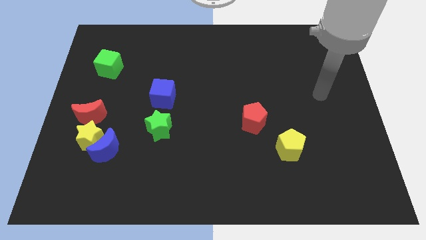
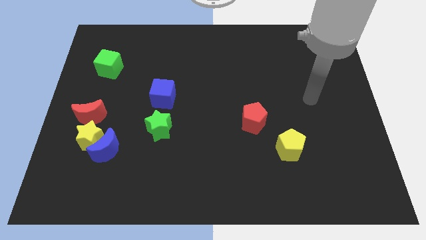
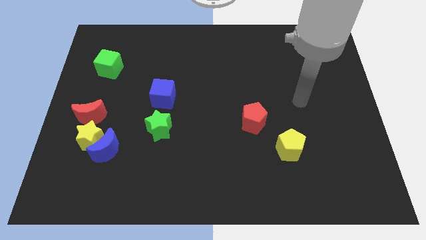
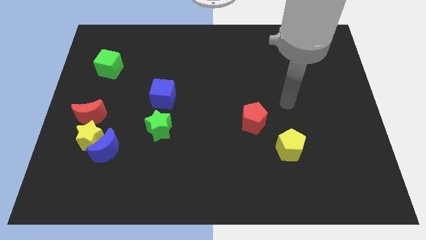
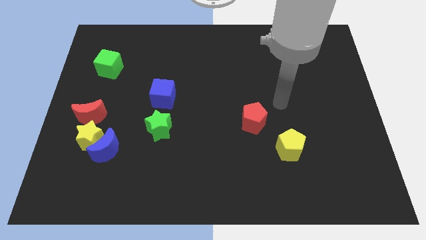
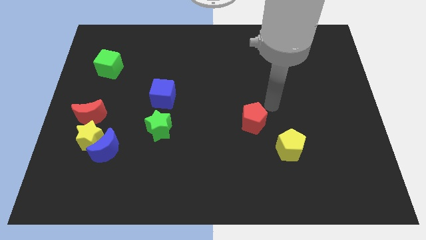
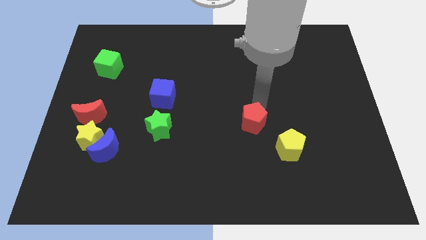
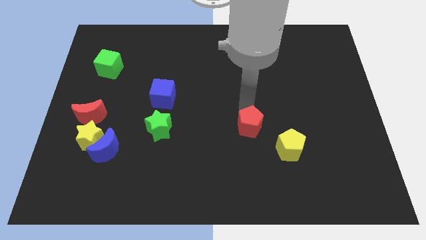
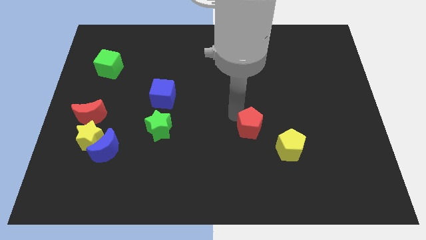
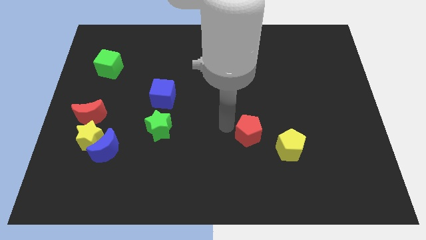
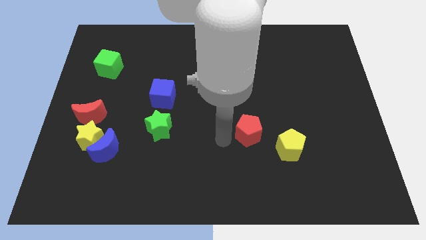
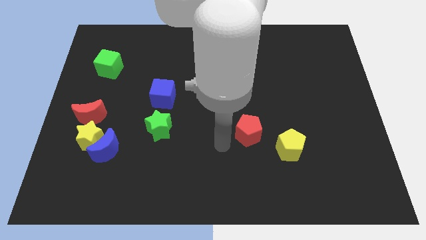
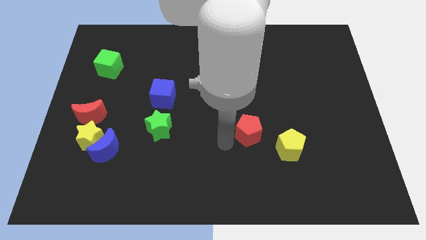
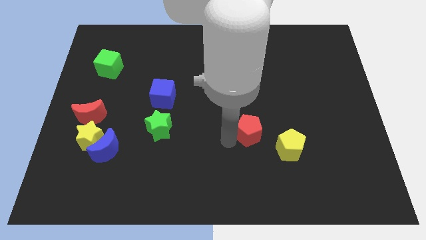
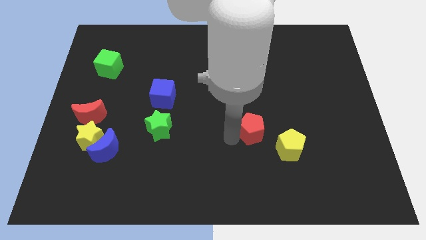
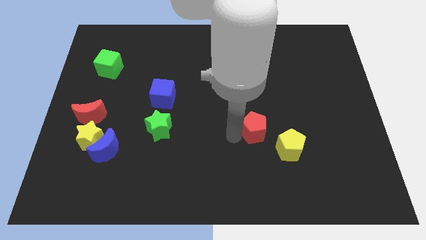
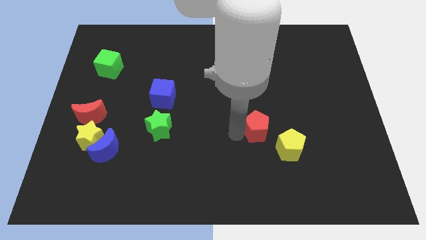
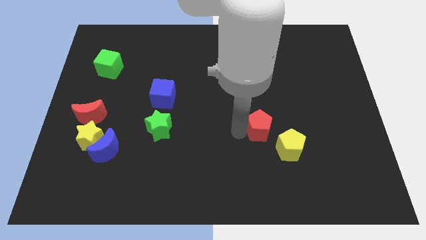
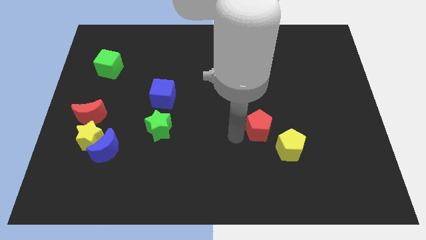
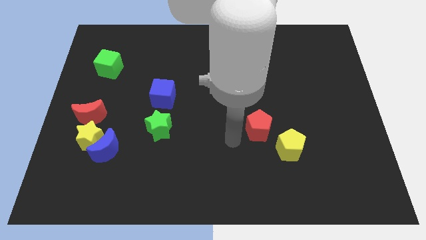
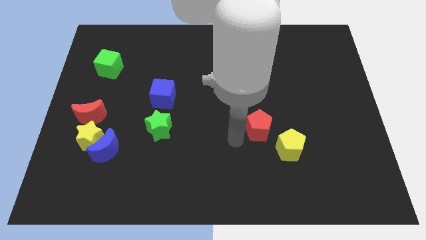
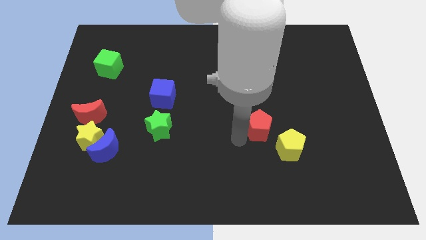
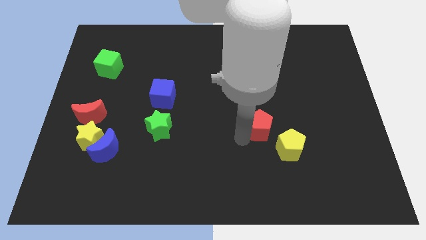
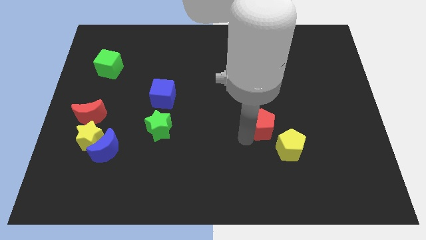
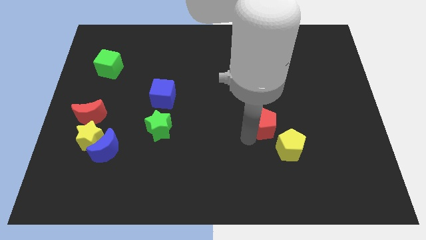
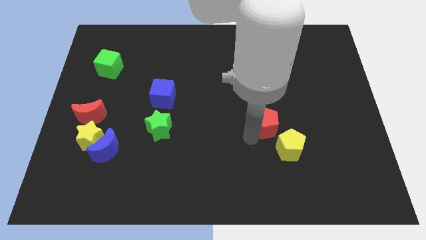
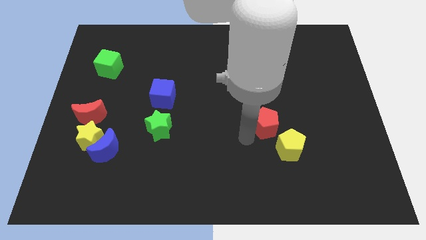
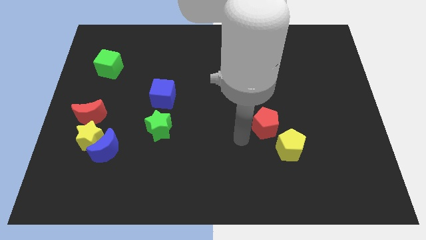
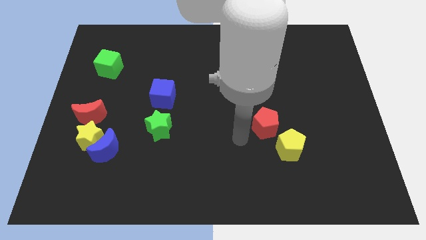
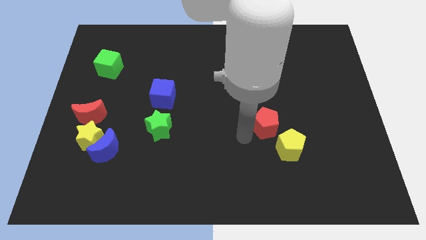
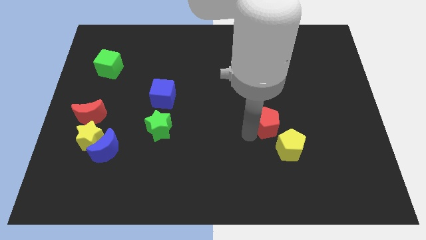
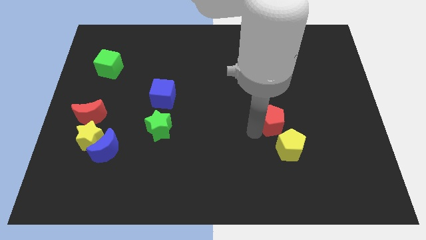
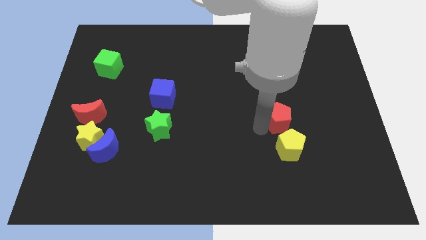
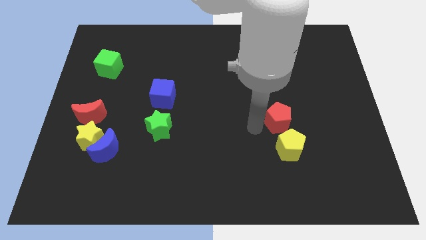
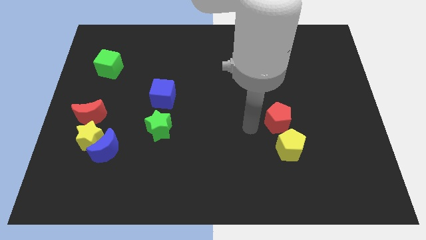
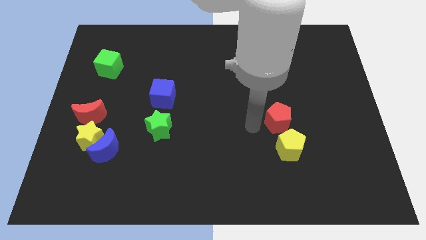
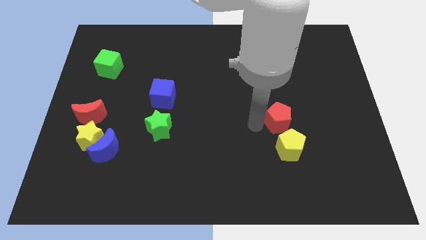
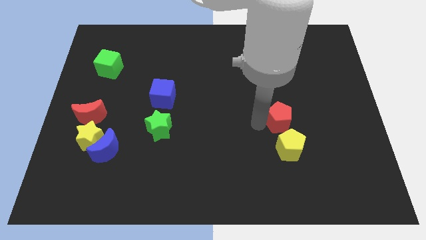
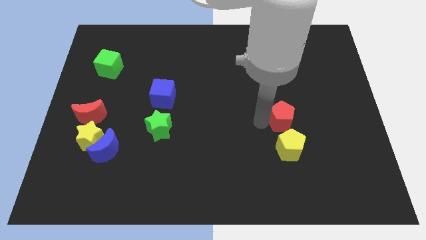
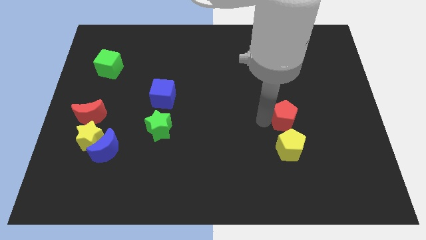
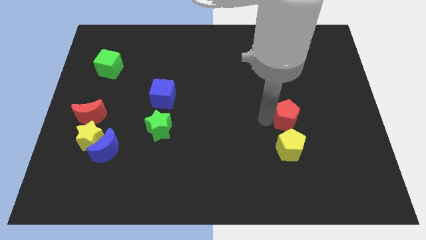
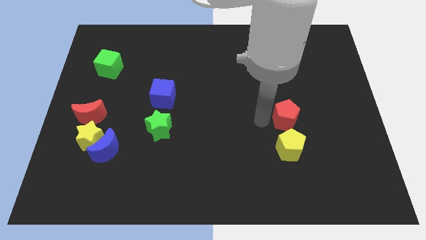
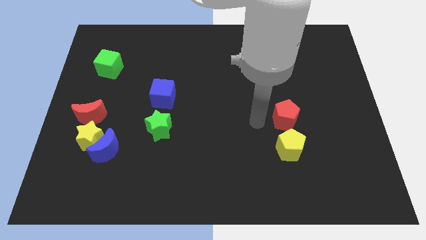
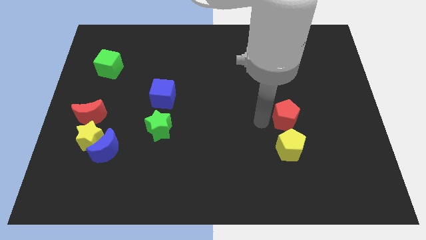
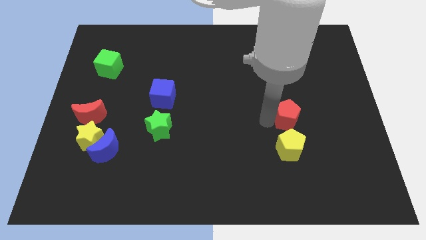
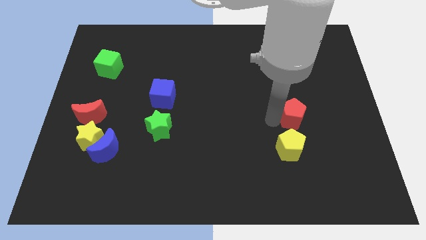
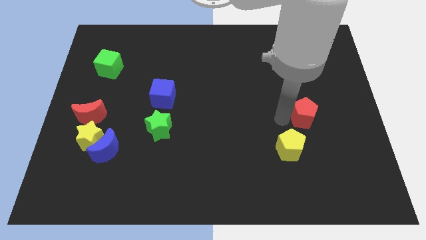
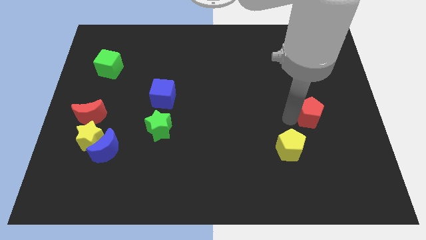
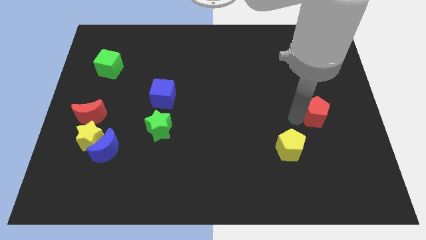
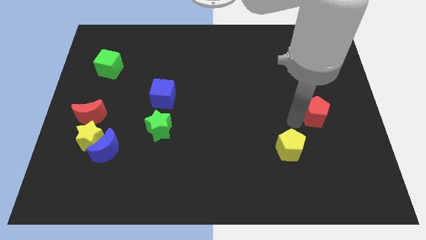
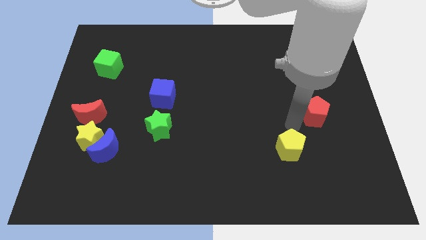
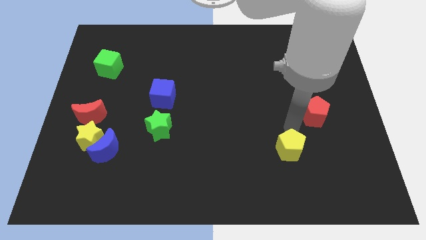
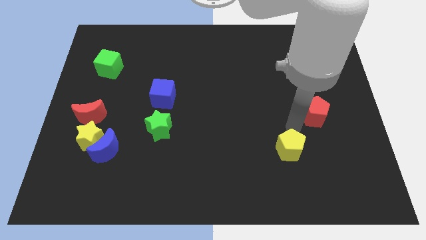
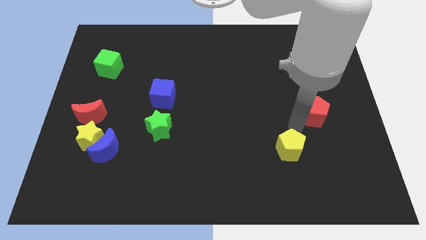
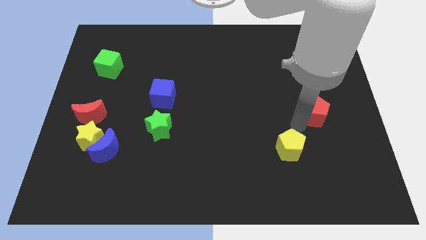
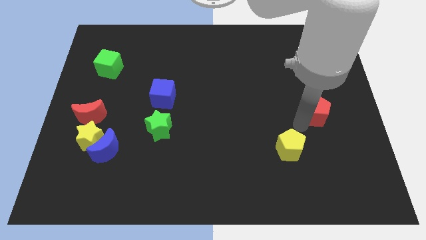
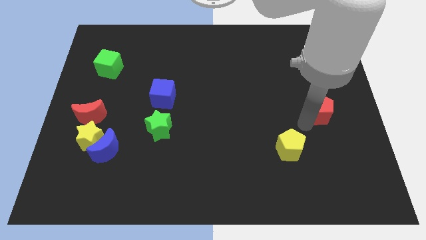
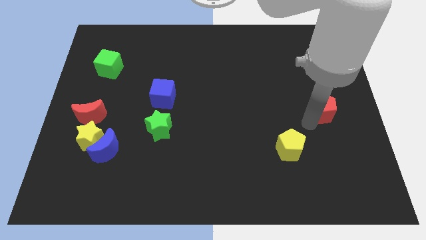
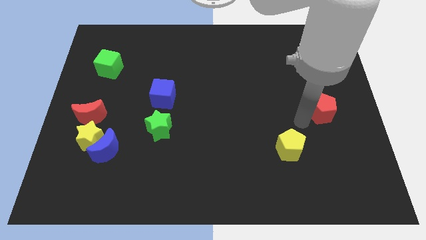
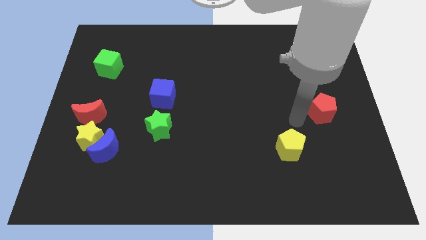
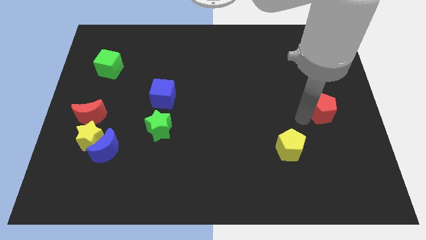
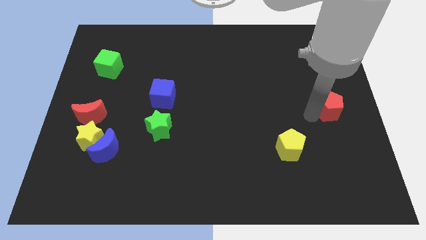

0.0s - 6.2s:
put the red pentagon to the right side of the board
